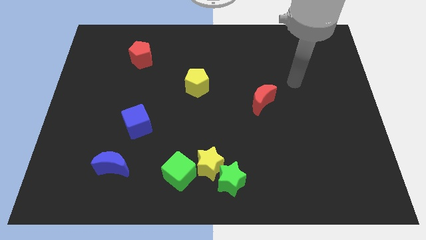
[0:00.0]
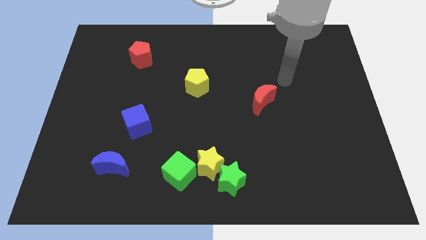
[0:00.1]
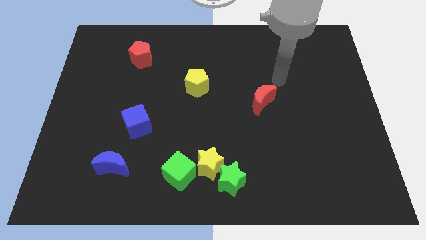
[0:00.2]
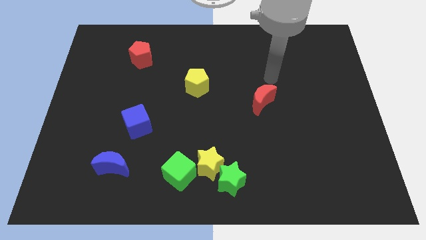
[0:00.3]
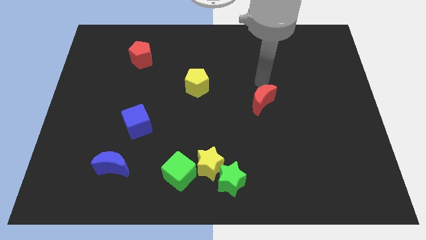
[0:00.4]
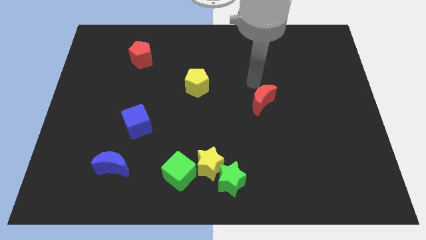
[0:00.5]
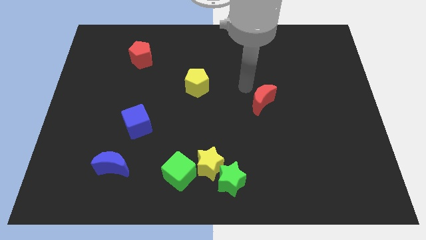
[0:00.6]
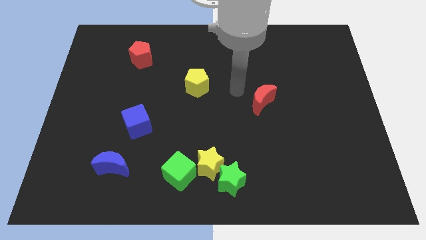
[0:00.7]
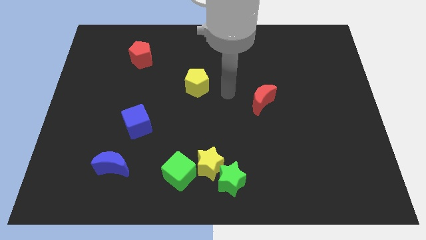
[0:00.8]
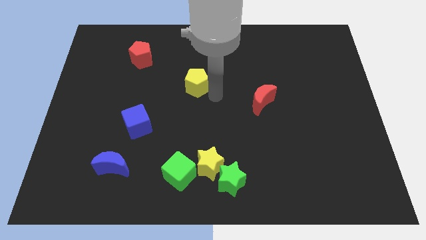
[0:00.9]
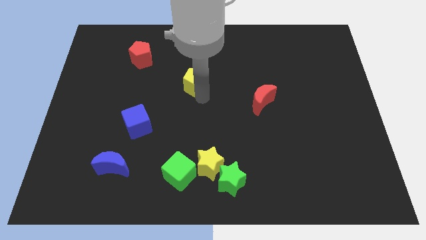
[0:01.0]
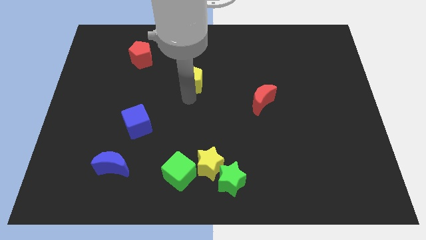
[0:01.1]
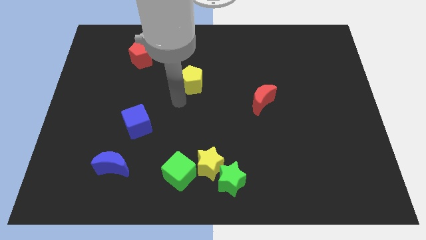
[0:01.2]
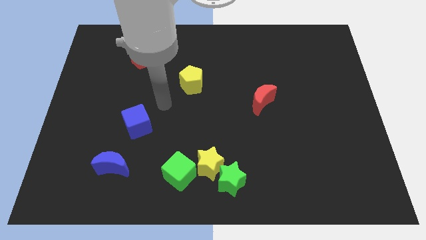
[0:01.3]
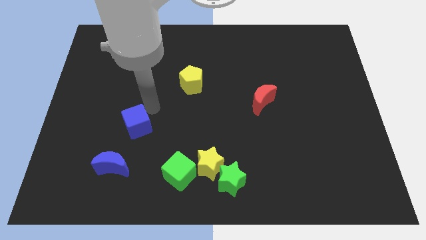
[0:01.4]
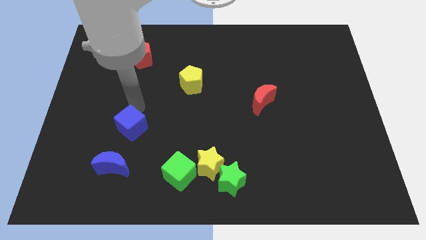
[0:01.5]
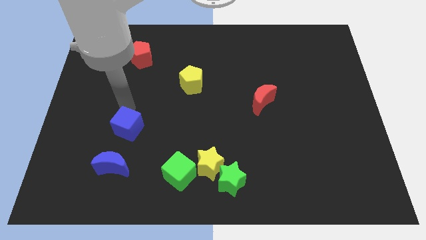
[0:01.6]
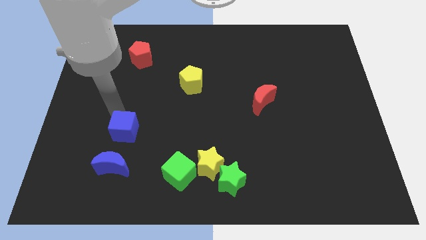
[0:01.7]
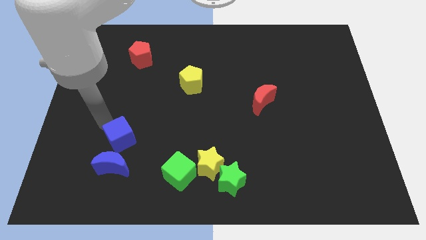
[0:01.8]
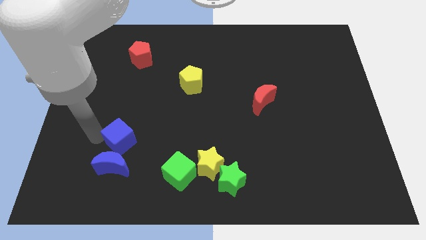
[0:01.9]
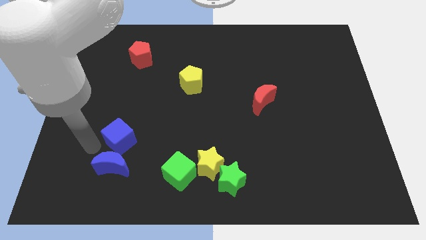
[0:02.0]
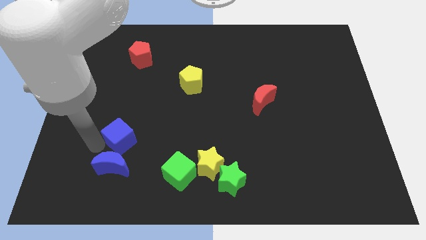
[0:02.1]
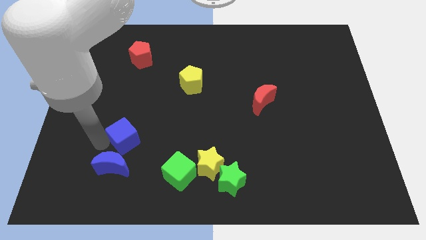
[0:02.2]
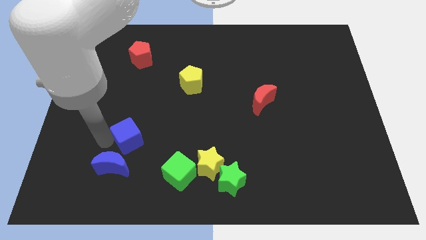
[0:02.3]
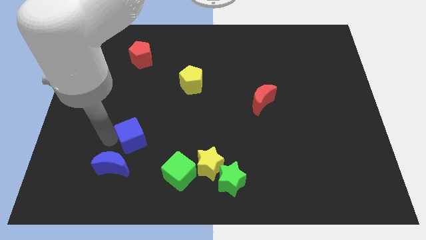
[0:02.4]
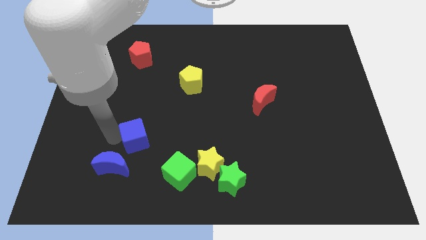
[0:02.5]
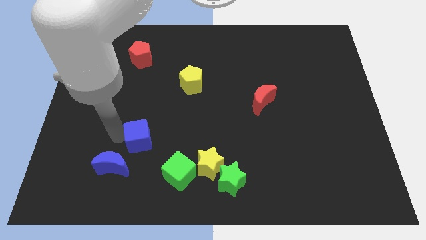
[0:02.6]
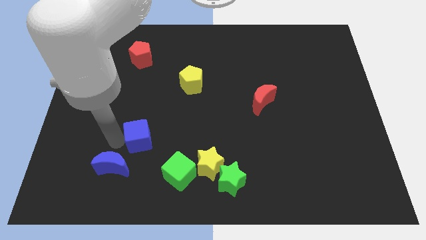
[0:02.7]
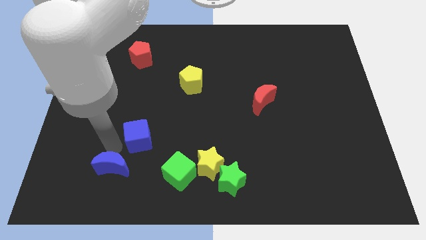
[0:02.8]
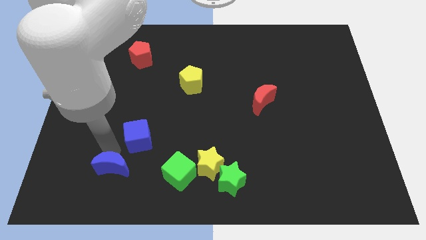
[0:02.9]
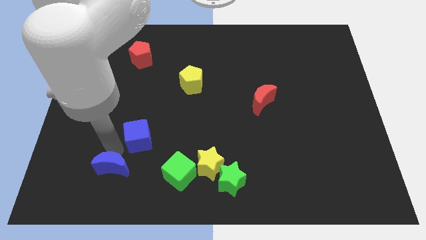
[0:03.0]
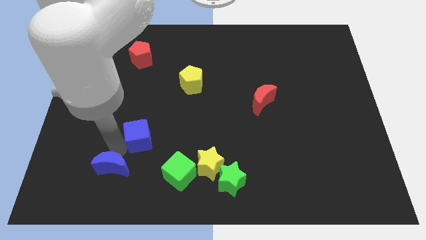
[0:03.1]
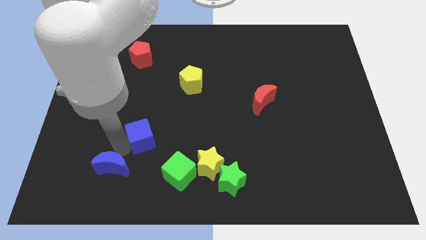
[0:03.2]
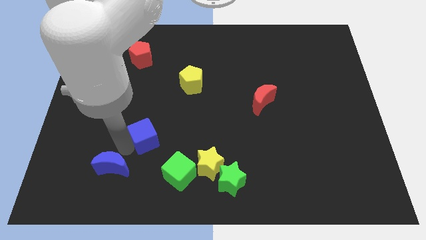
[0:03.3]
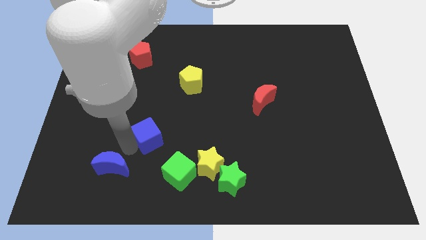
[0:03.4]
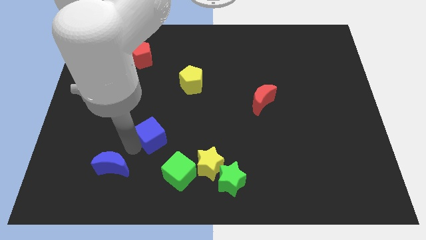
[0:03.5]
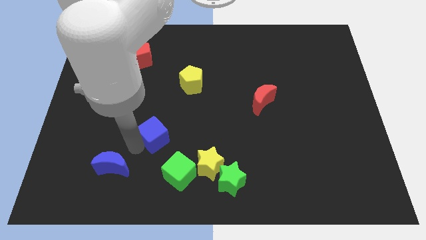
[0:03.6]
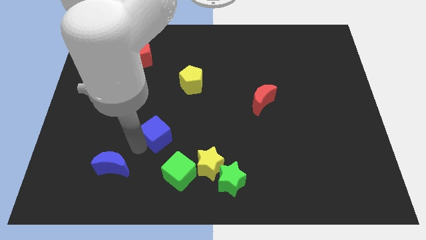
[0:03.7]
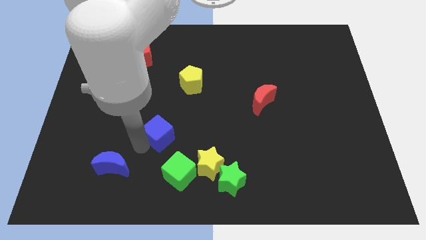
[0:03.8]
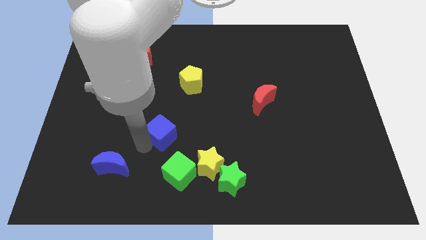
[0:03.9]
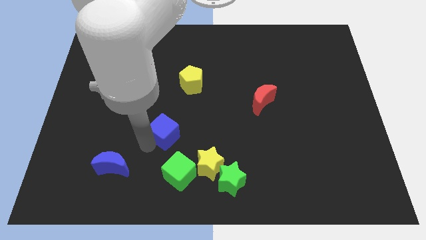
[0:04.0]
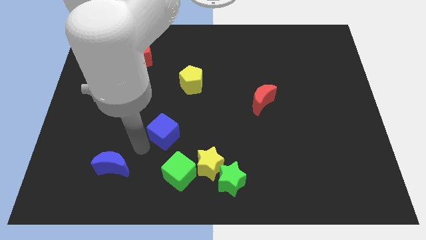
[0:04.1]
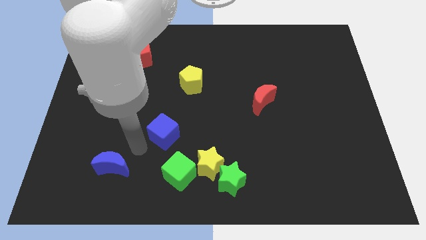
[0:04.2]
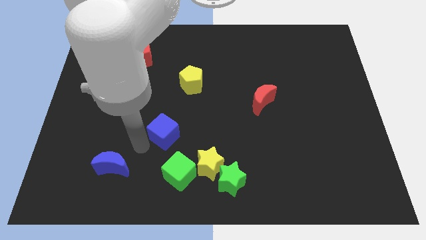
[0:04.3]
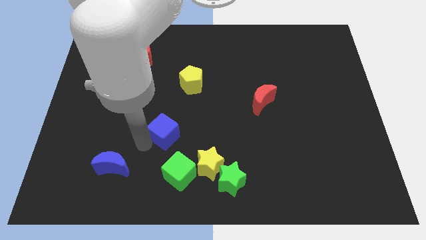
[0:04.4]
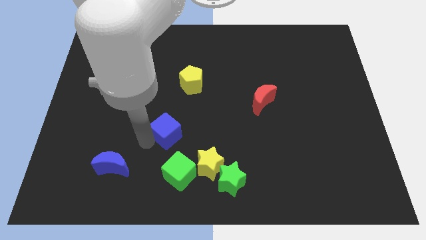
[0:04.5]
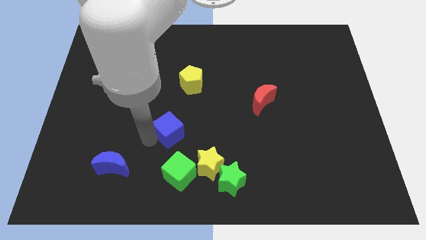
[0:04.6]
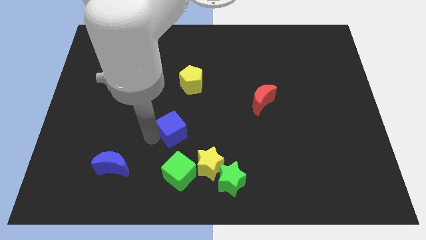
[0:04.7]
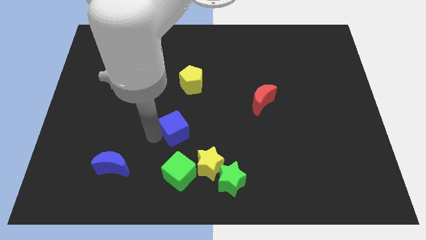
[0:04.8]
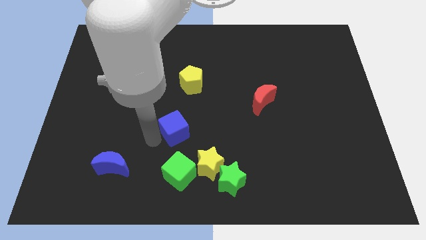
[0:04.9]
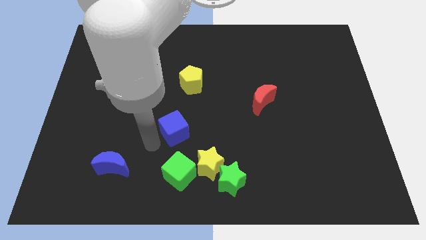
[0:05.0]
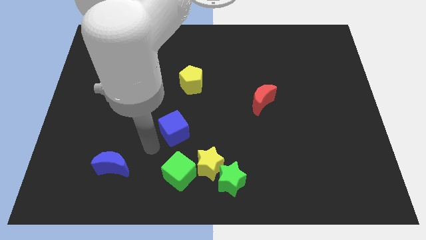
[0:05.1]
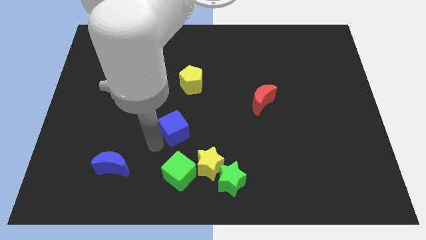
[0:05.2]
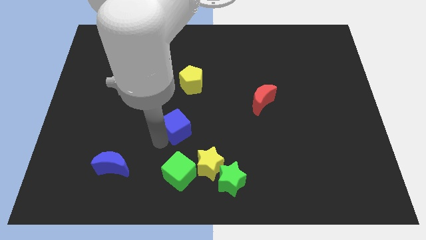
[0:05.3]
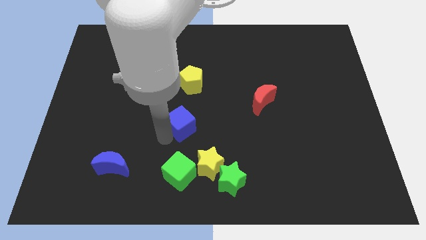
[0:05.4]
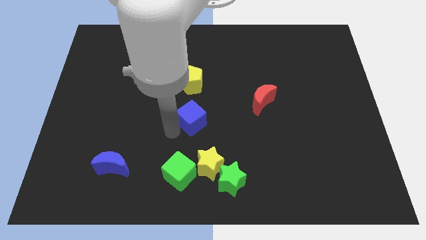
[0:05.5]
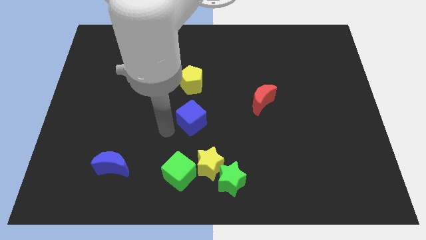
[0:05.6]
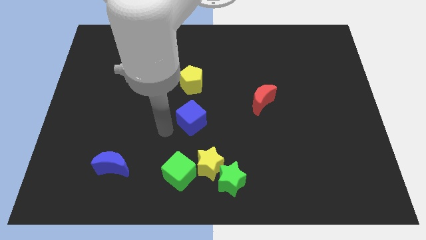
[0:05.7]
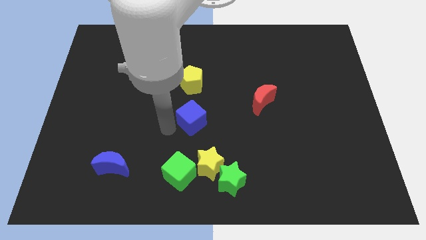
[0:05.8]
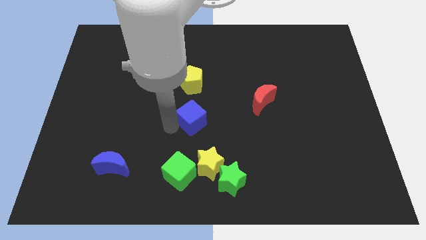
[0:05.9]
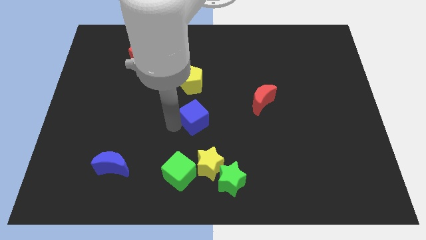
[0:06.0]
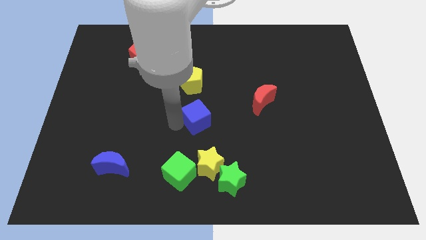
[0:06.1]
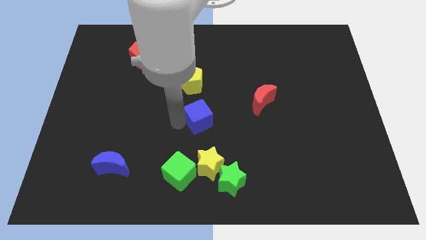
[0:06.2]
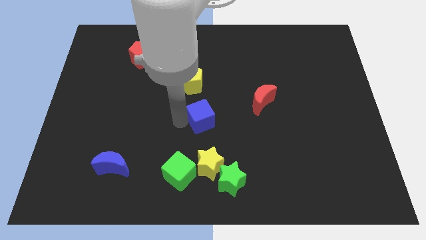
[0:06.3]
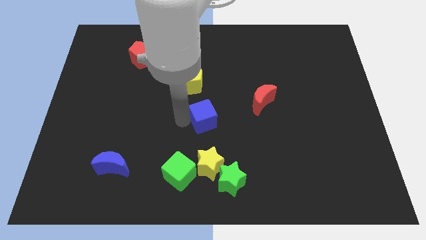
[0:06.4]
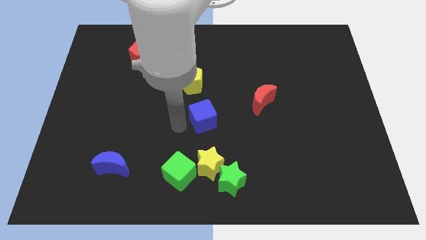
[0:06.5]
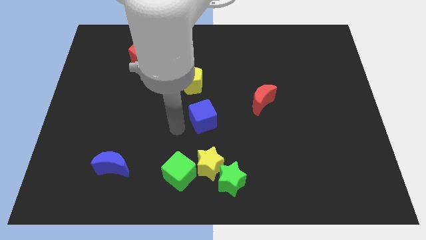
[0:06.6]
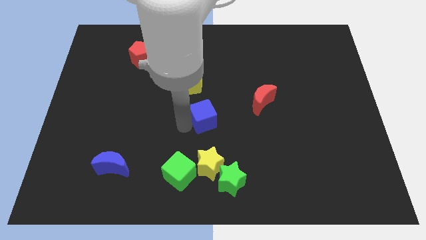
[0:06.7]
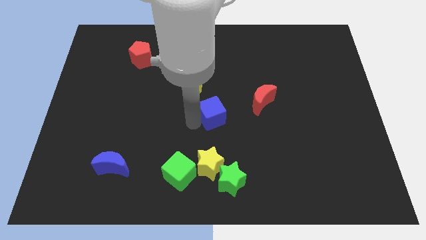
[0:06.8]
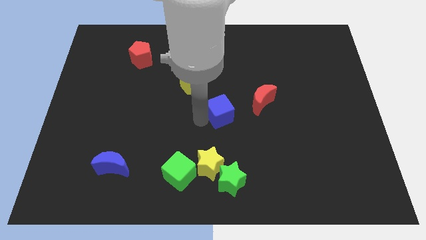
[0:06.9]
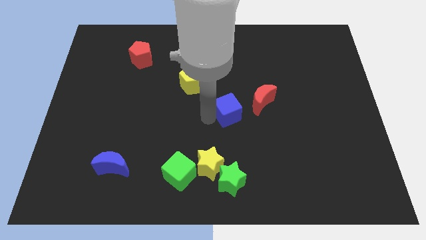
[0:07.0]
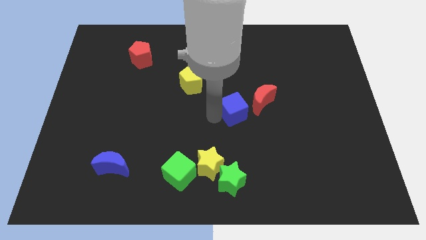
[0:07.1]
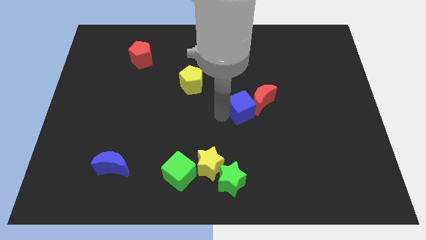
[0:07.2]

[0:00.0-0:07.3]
put the blue cube towards the red moon

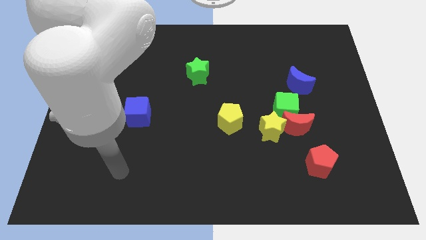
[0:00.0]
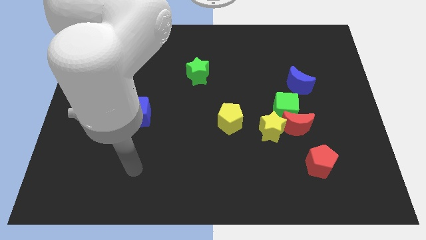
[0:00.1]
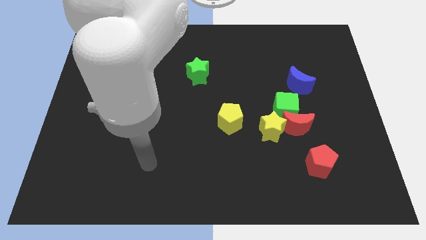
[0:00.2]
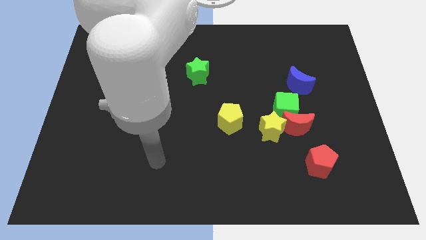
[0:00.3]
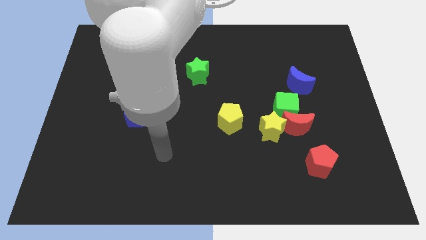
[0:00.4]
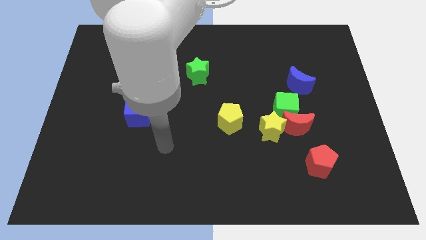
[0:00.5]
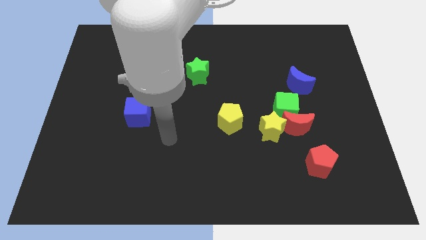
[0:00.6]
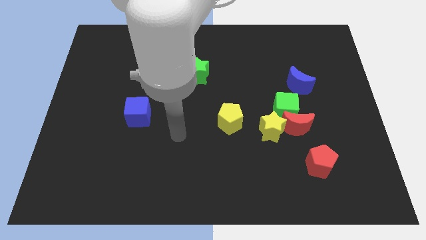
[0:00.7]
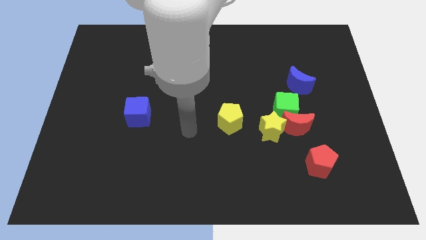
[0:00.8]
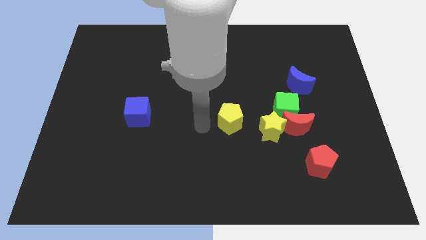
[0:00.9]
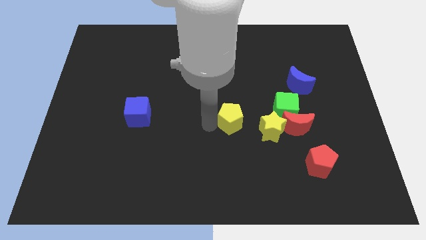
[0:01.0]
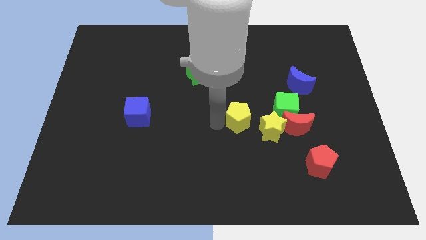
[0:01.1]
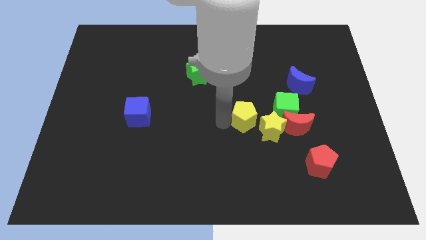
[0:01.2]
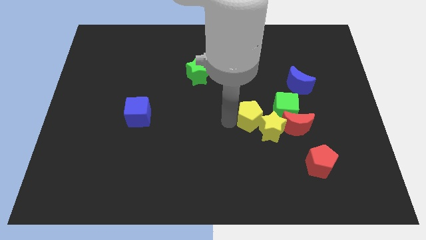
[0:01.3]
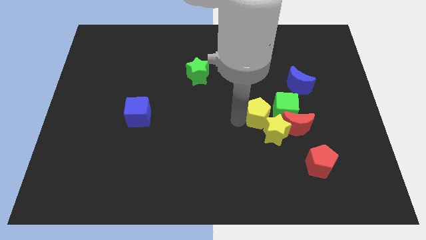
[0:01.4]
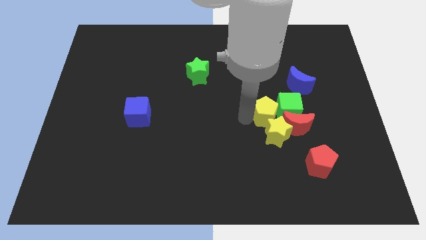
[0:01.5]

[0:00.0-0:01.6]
slide the yellow pentagon towards the green cube
